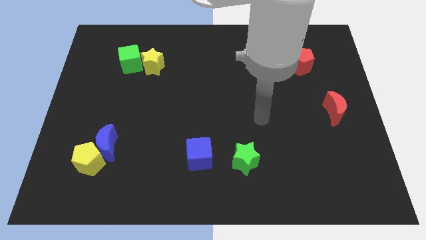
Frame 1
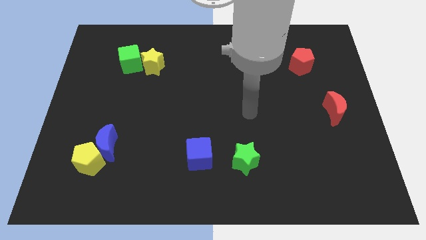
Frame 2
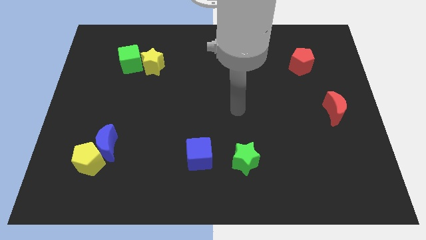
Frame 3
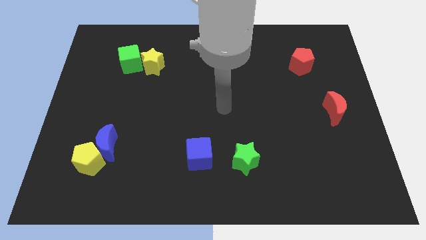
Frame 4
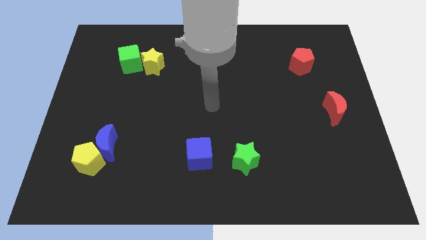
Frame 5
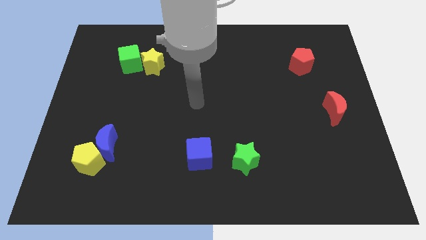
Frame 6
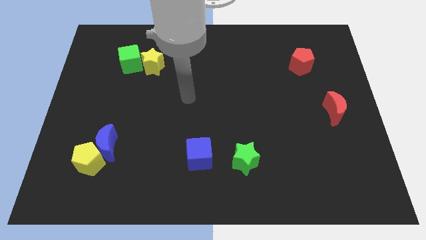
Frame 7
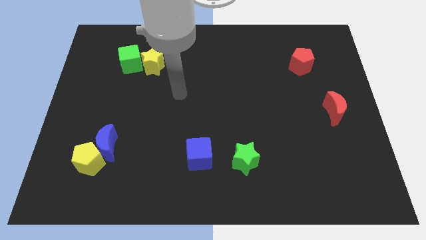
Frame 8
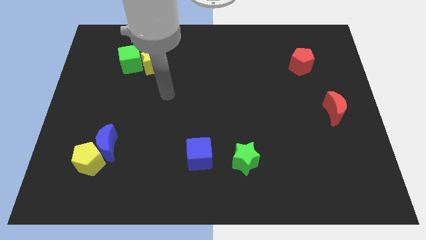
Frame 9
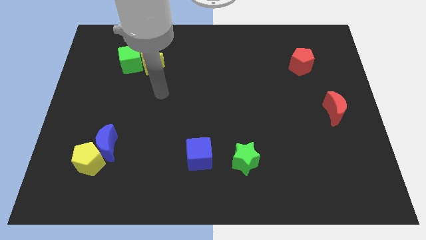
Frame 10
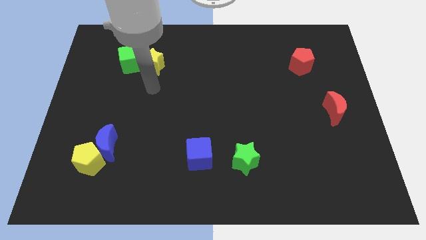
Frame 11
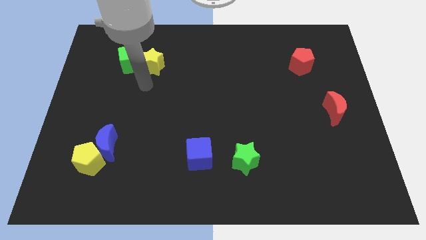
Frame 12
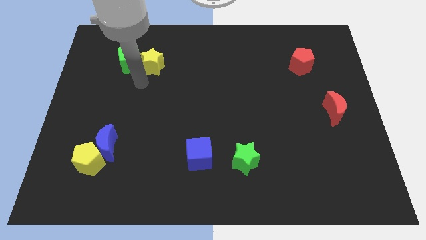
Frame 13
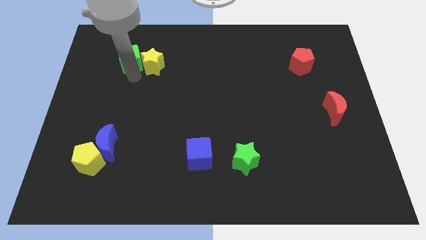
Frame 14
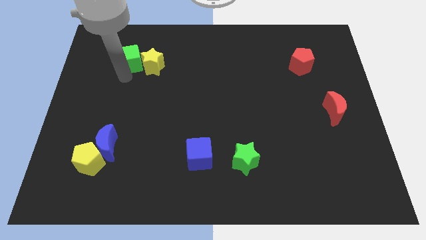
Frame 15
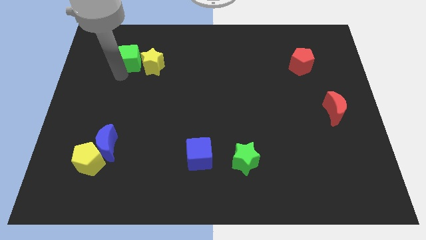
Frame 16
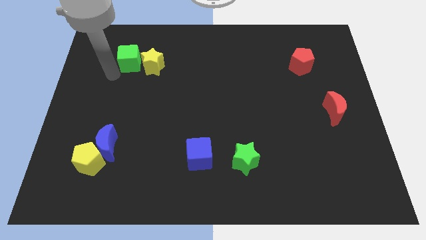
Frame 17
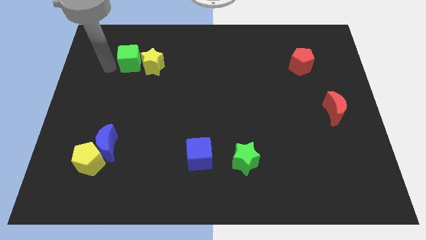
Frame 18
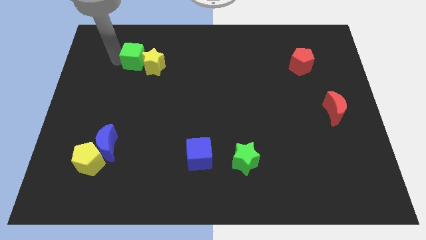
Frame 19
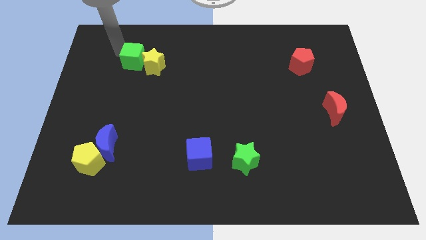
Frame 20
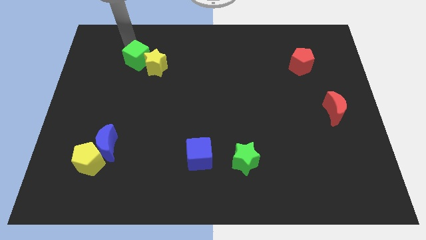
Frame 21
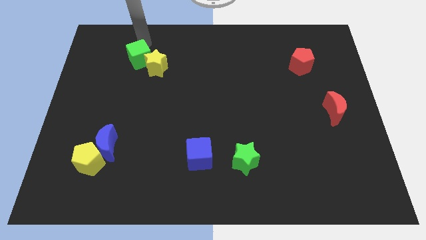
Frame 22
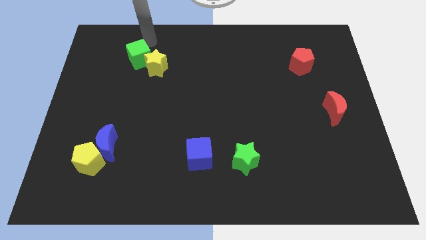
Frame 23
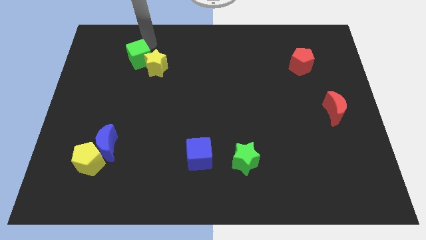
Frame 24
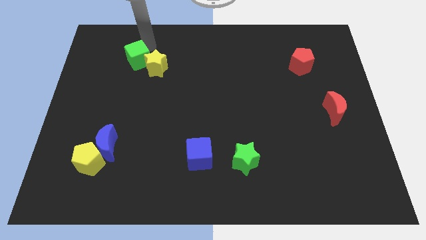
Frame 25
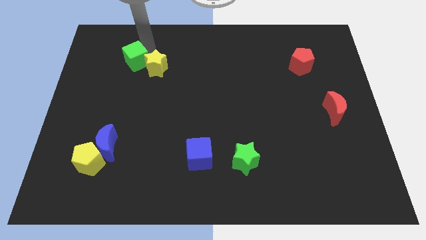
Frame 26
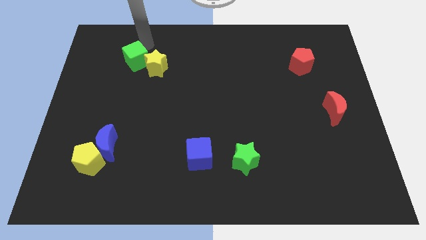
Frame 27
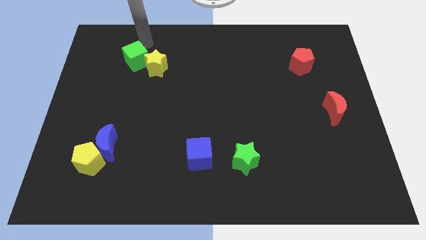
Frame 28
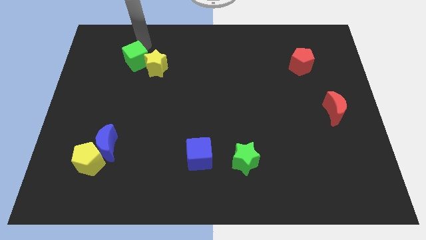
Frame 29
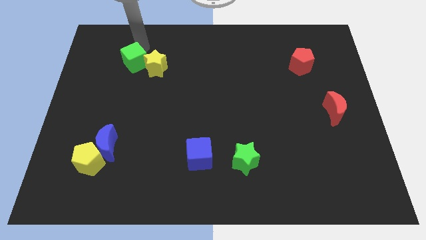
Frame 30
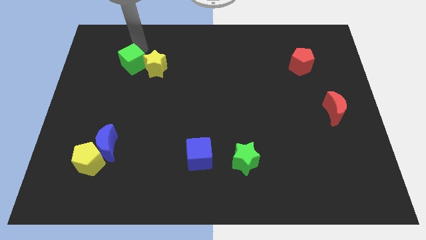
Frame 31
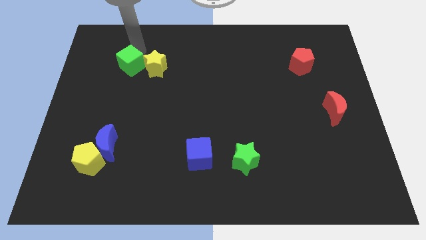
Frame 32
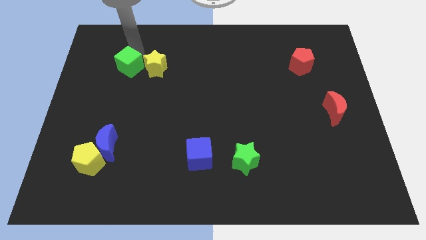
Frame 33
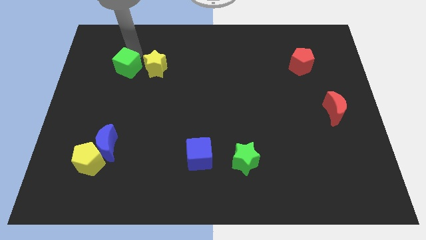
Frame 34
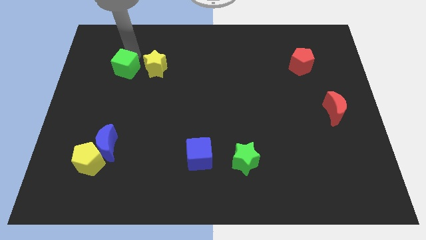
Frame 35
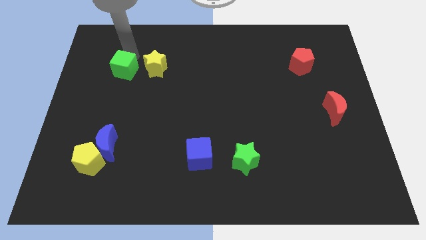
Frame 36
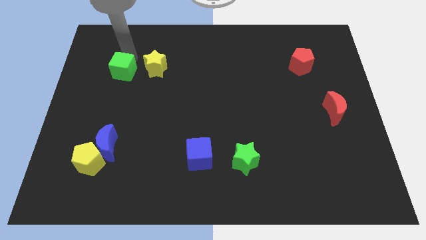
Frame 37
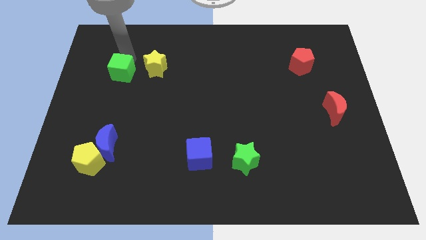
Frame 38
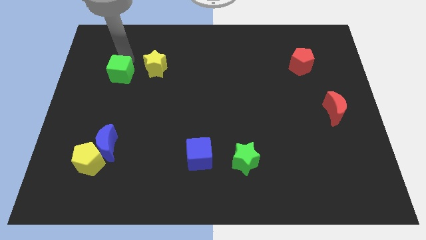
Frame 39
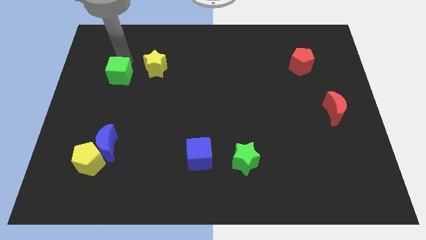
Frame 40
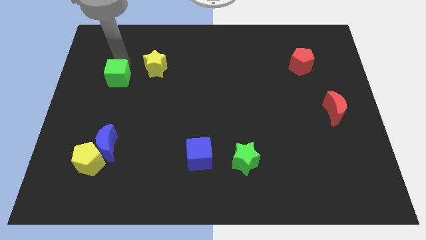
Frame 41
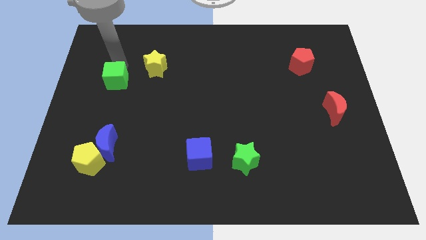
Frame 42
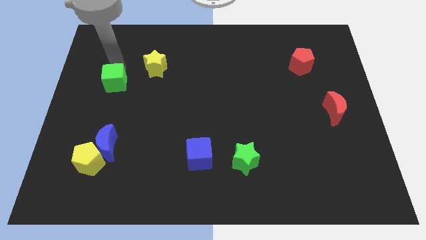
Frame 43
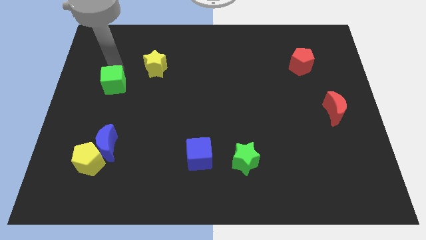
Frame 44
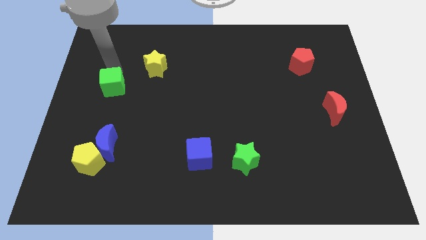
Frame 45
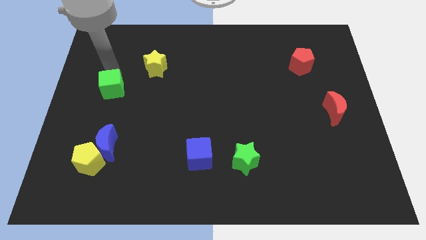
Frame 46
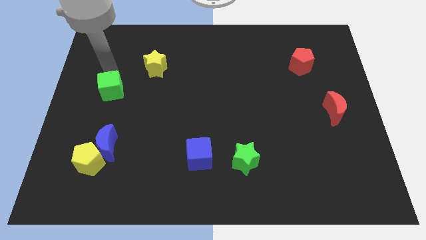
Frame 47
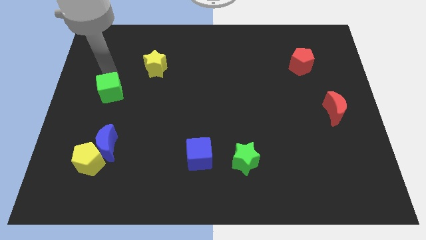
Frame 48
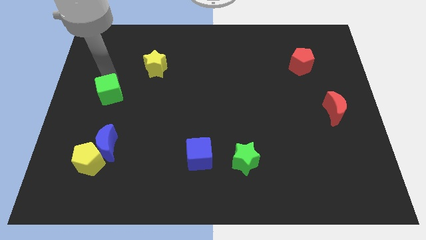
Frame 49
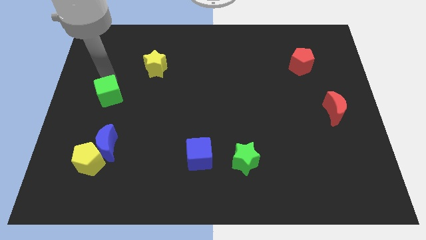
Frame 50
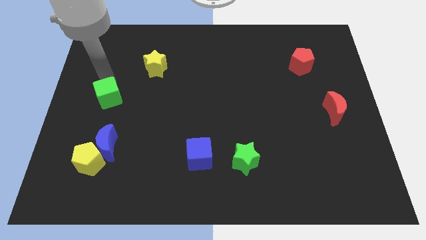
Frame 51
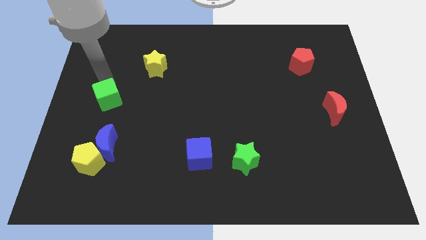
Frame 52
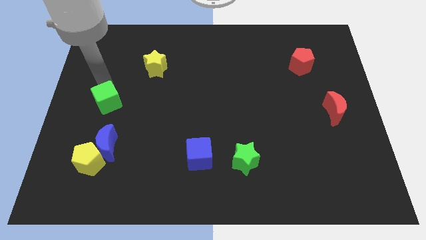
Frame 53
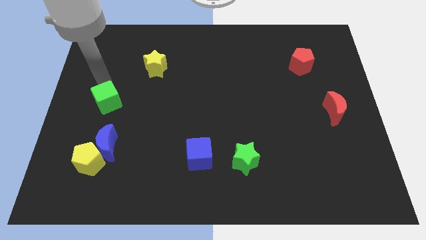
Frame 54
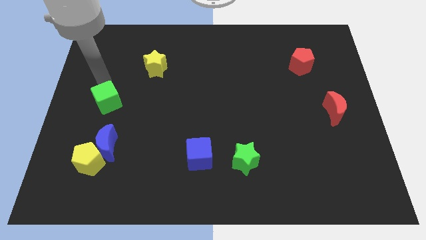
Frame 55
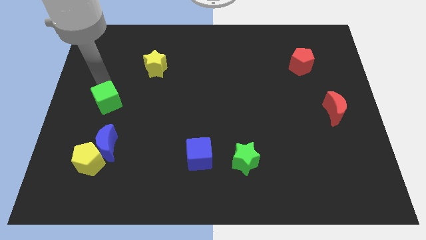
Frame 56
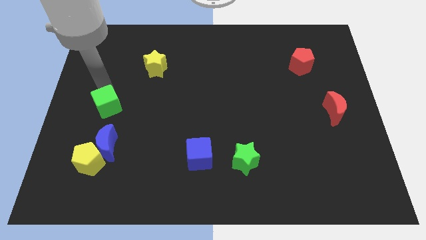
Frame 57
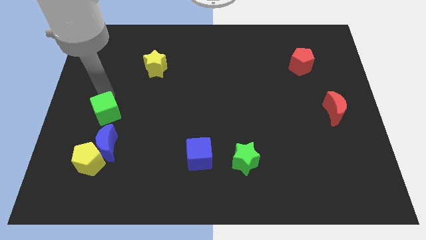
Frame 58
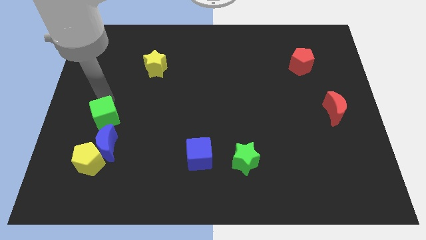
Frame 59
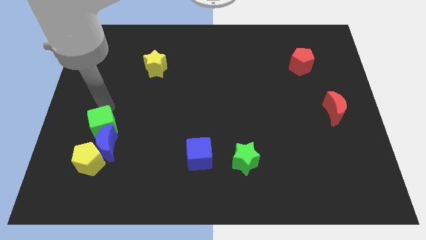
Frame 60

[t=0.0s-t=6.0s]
move the green cube towards the blue moon

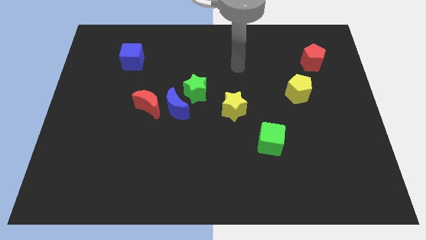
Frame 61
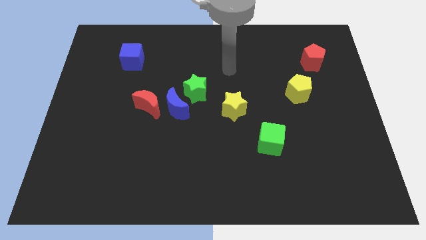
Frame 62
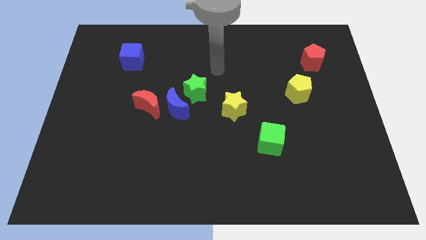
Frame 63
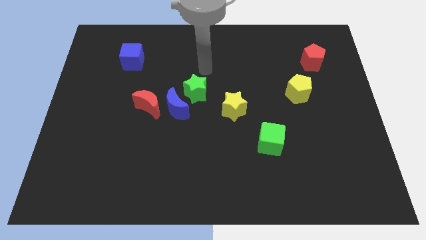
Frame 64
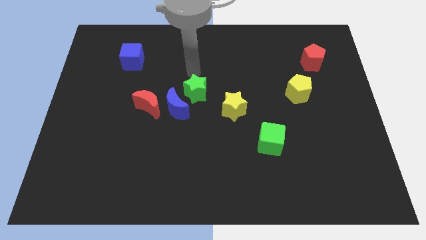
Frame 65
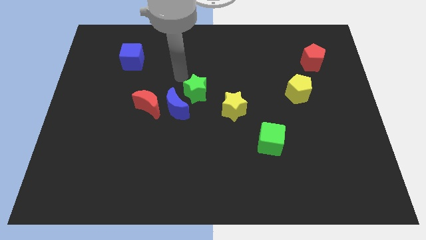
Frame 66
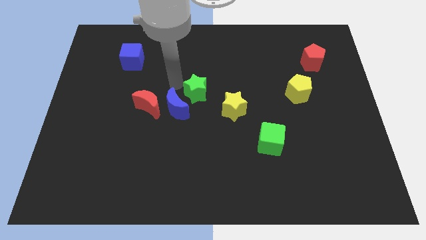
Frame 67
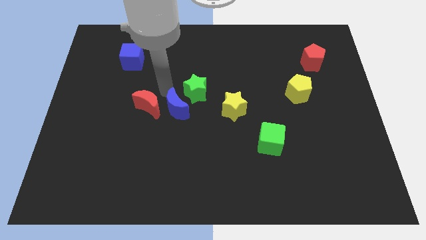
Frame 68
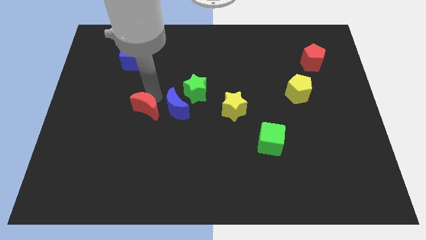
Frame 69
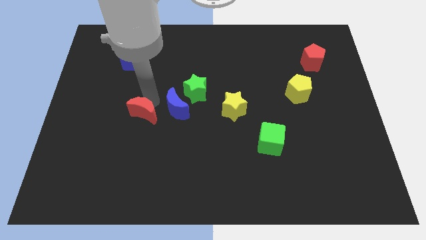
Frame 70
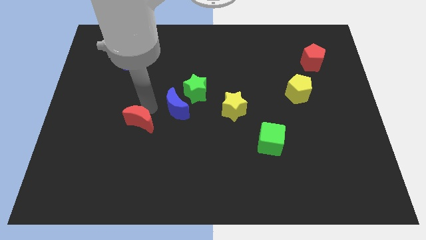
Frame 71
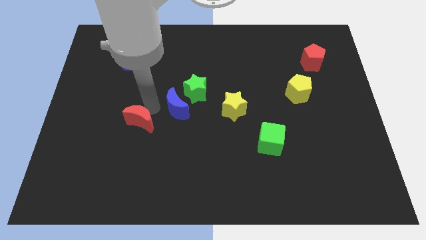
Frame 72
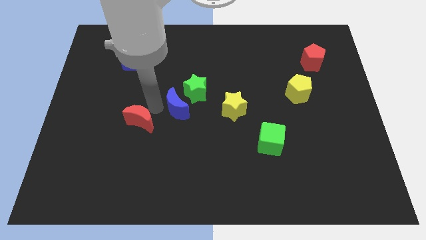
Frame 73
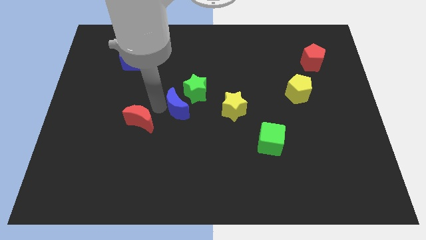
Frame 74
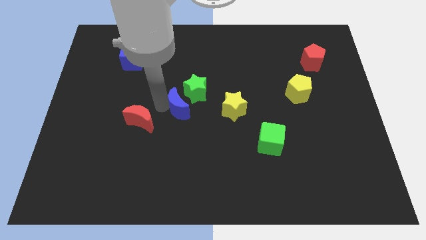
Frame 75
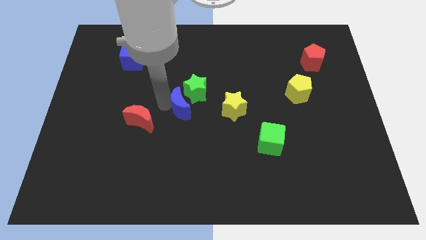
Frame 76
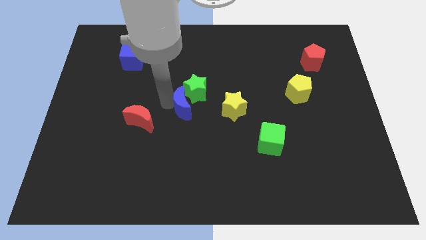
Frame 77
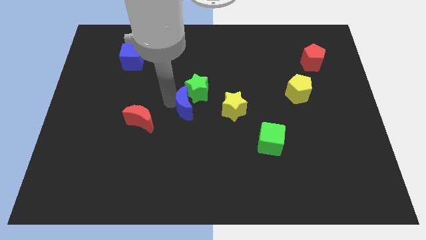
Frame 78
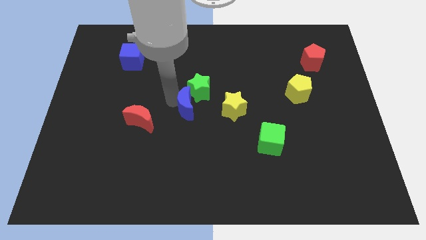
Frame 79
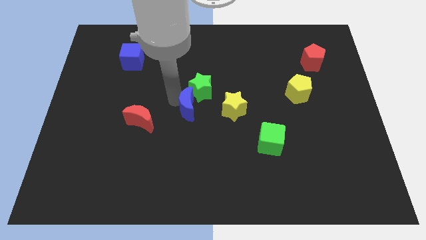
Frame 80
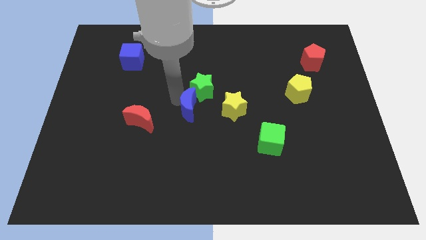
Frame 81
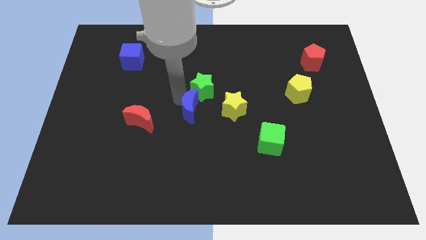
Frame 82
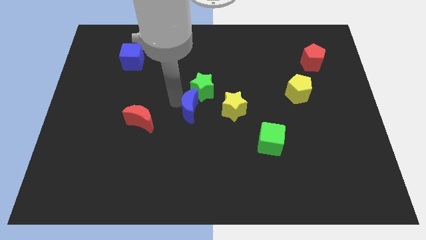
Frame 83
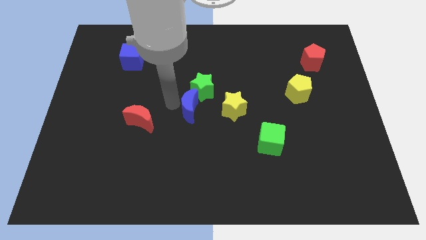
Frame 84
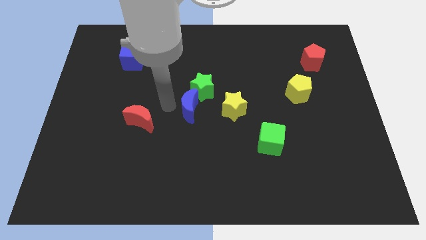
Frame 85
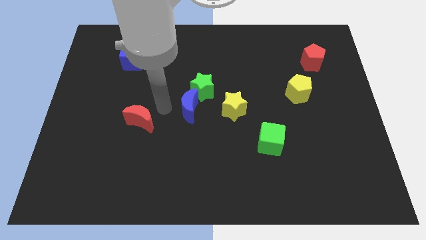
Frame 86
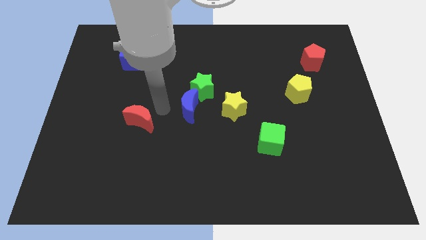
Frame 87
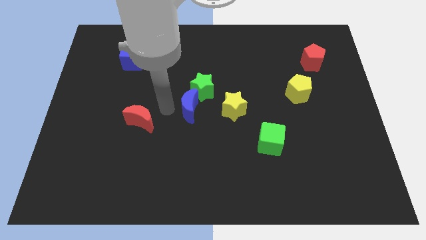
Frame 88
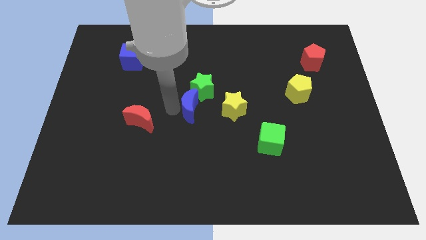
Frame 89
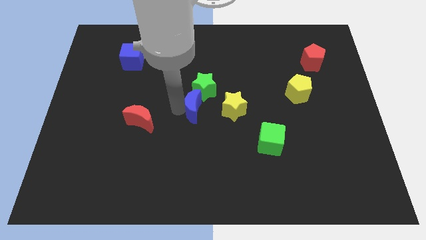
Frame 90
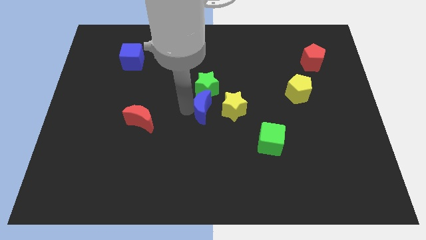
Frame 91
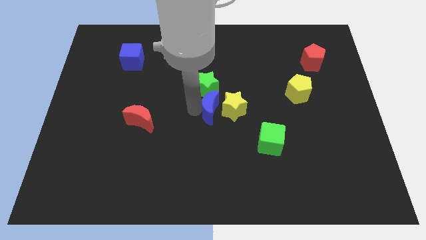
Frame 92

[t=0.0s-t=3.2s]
move the blue moon to the yellow star
